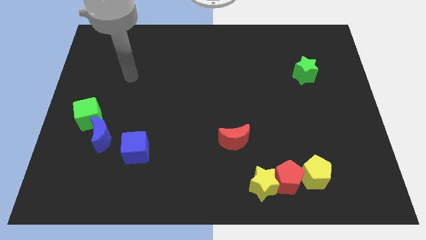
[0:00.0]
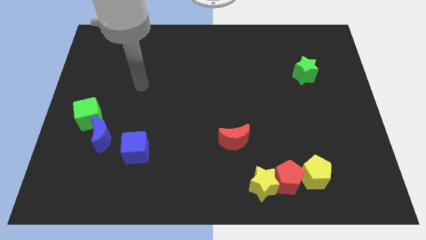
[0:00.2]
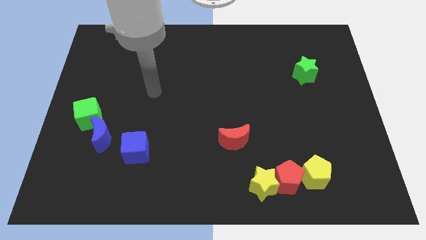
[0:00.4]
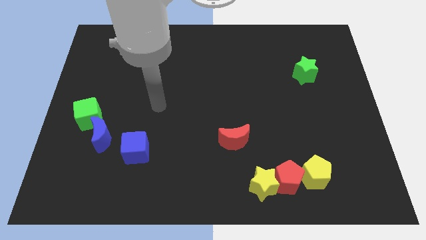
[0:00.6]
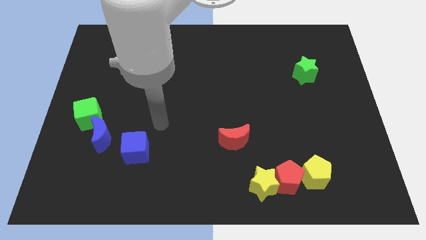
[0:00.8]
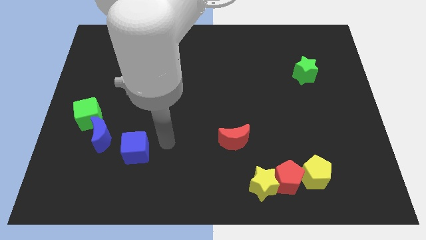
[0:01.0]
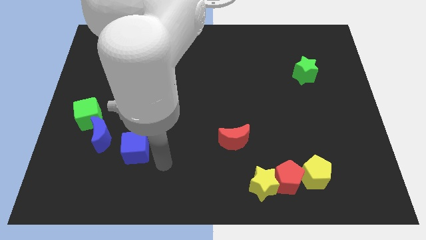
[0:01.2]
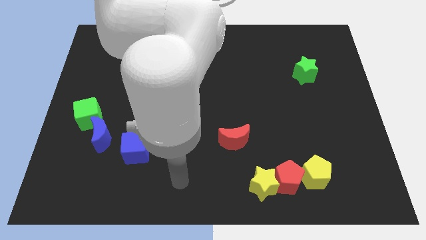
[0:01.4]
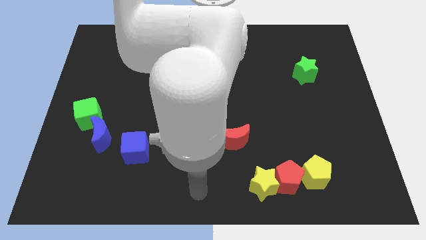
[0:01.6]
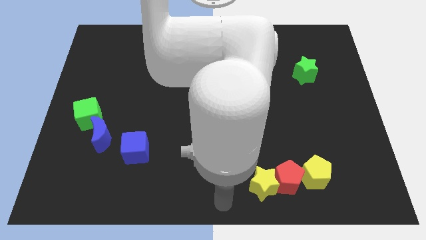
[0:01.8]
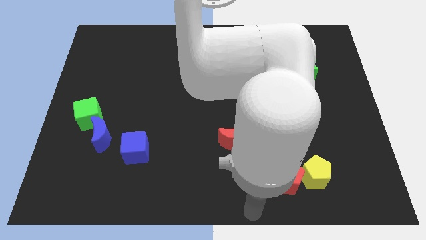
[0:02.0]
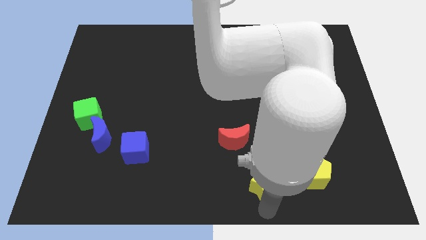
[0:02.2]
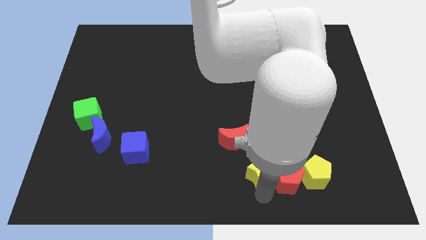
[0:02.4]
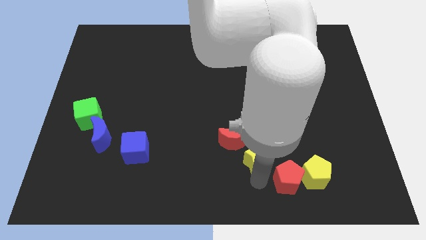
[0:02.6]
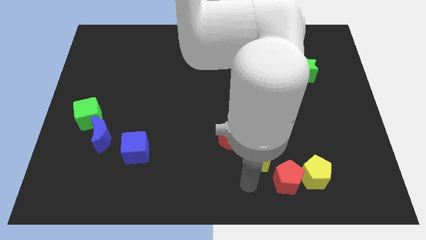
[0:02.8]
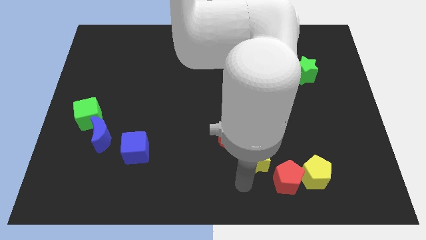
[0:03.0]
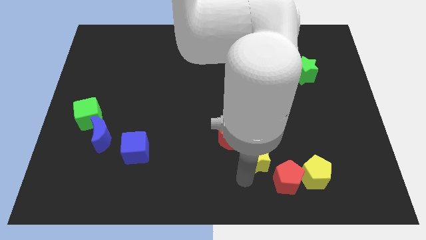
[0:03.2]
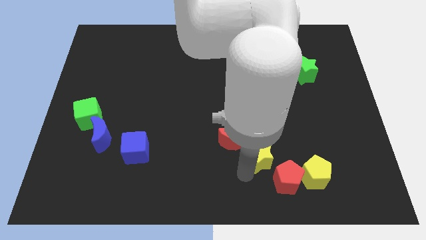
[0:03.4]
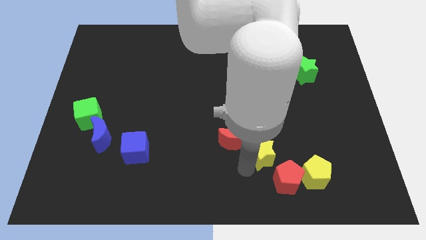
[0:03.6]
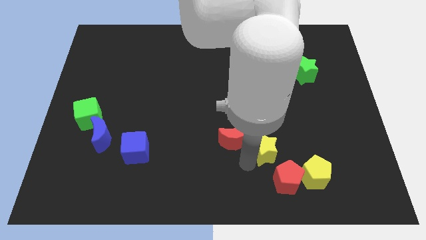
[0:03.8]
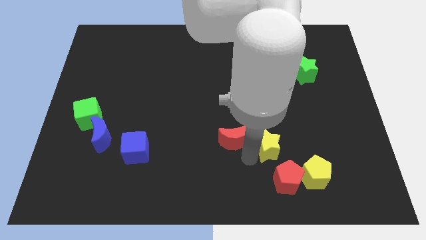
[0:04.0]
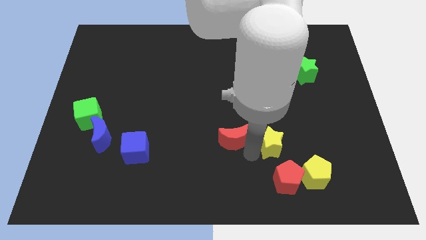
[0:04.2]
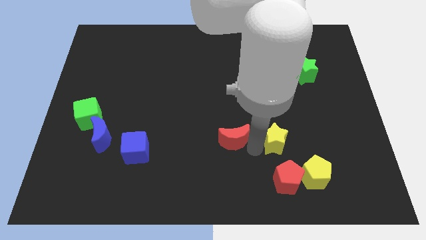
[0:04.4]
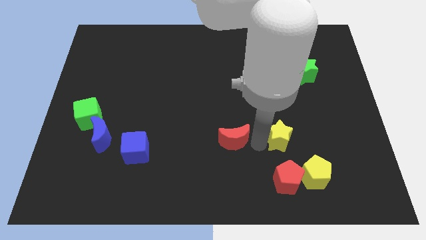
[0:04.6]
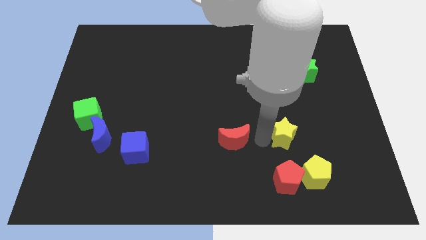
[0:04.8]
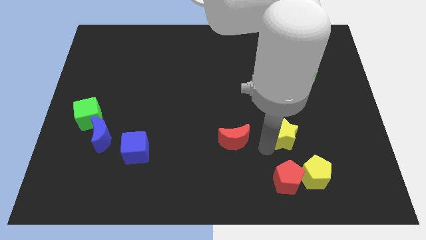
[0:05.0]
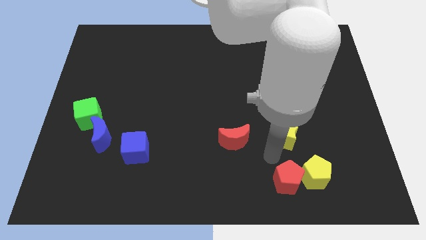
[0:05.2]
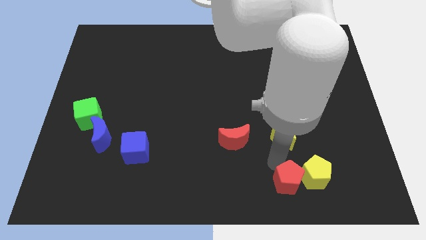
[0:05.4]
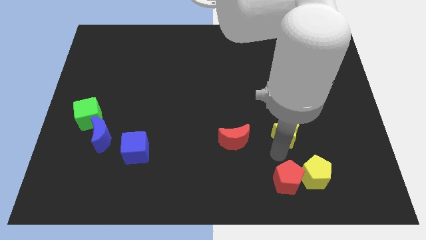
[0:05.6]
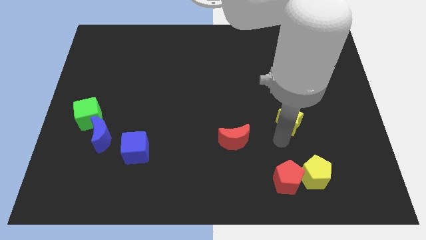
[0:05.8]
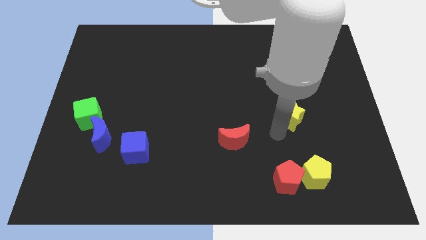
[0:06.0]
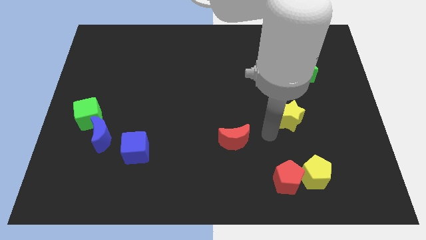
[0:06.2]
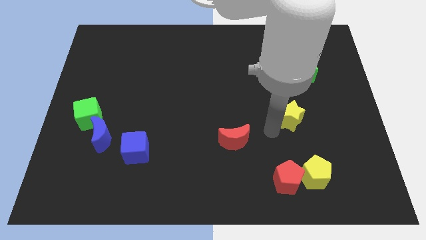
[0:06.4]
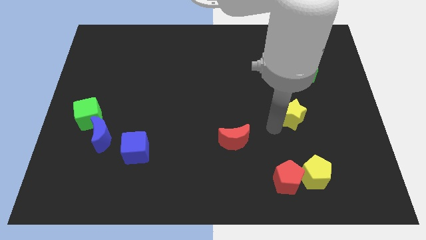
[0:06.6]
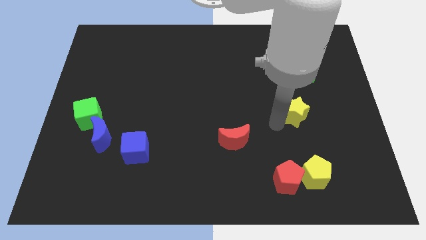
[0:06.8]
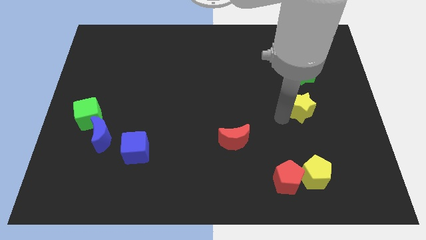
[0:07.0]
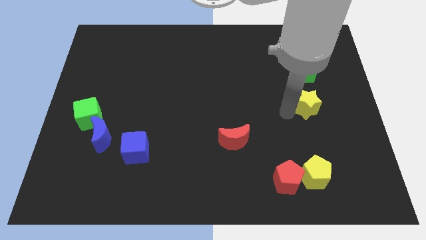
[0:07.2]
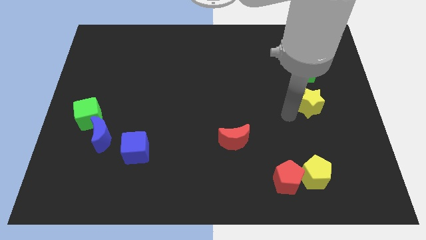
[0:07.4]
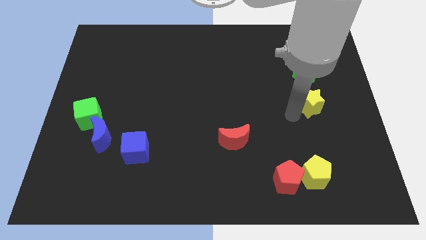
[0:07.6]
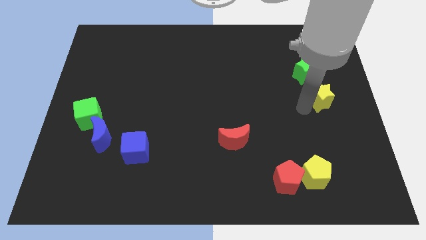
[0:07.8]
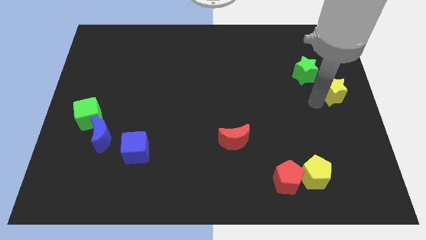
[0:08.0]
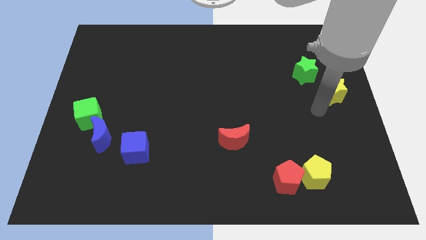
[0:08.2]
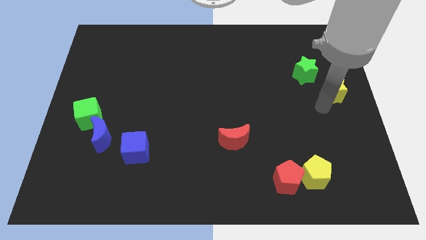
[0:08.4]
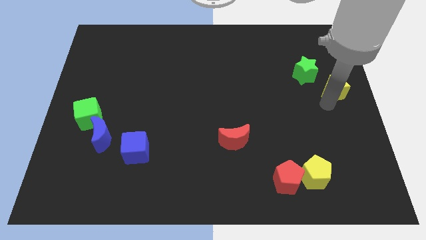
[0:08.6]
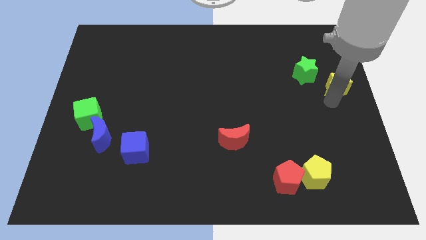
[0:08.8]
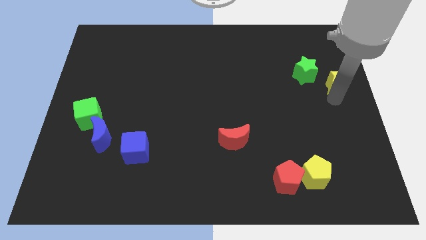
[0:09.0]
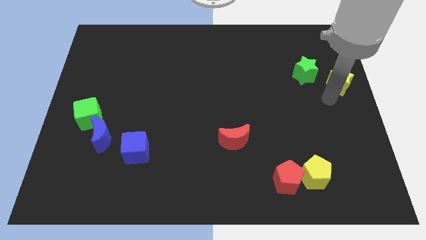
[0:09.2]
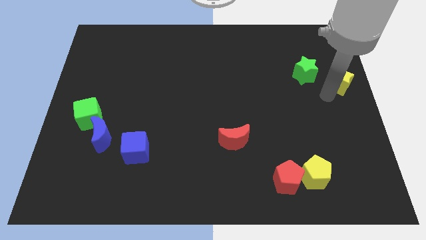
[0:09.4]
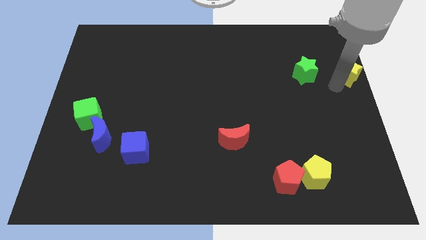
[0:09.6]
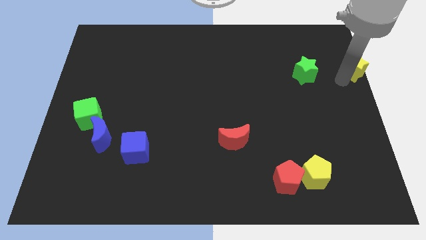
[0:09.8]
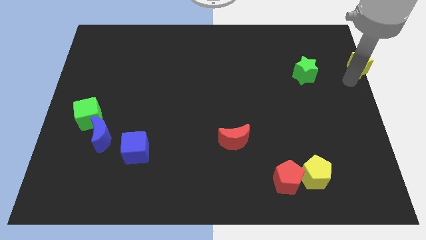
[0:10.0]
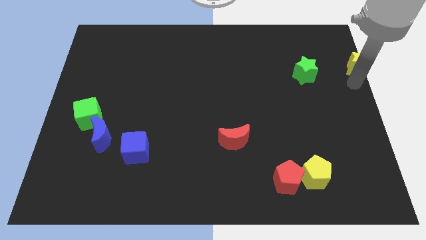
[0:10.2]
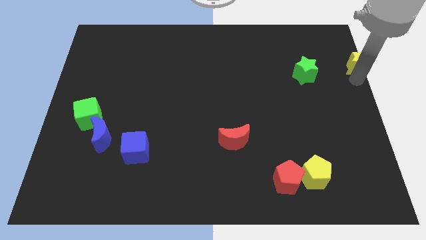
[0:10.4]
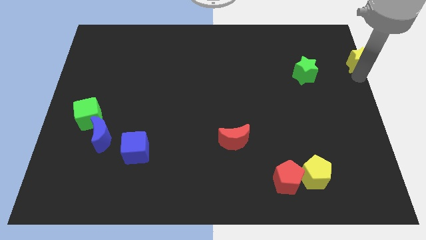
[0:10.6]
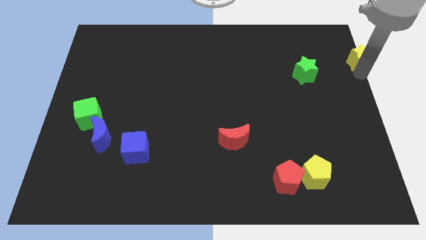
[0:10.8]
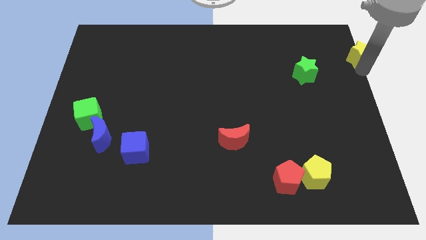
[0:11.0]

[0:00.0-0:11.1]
push the yellow star to the top right corner
